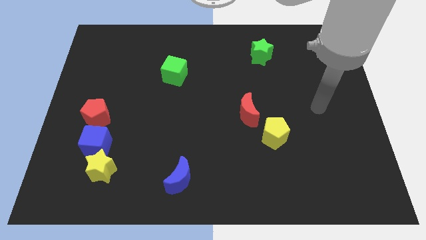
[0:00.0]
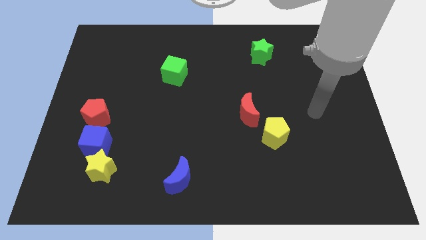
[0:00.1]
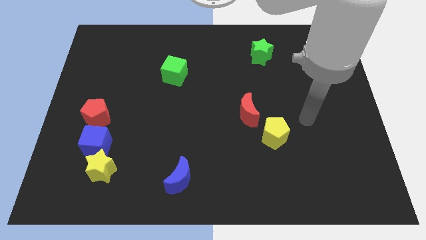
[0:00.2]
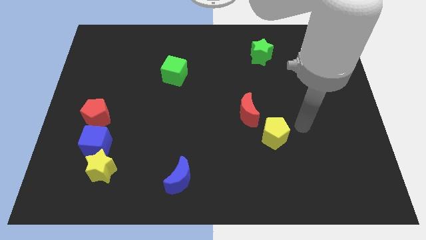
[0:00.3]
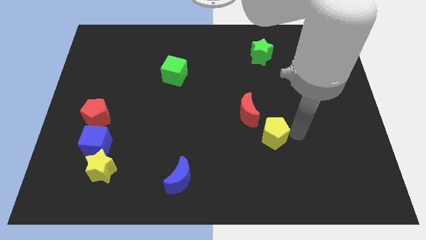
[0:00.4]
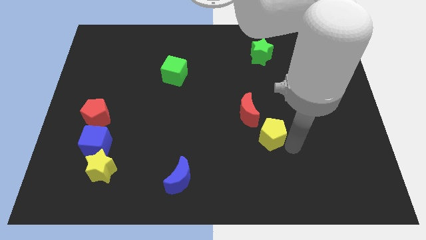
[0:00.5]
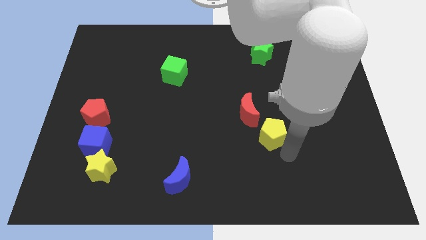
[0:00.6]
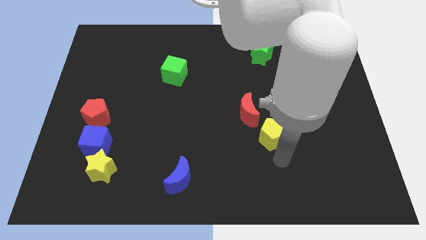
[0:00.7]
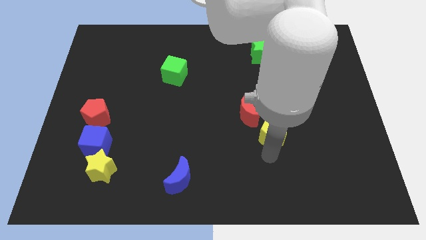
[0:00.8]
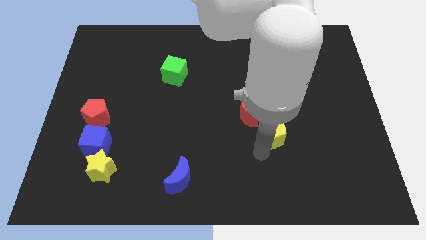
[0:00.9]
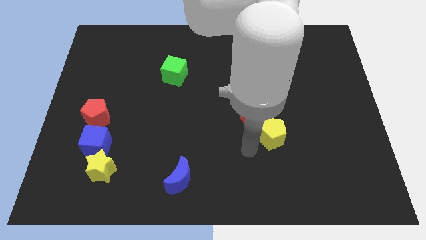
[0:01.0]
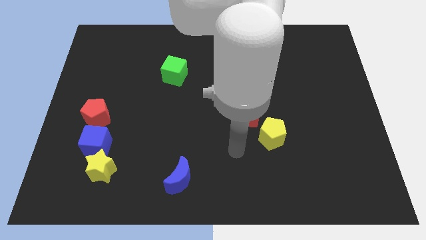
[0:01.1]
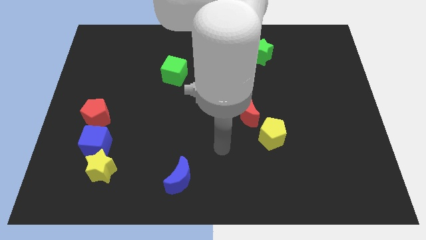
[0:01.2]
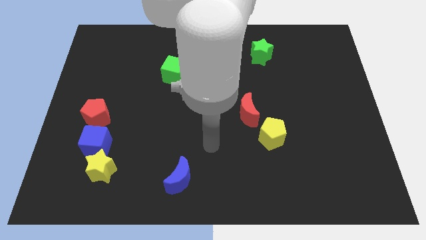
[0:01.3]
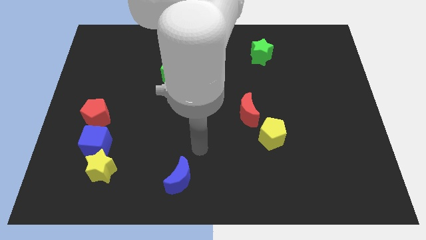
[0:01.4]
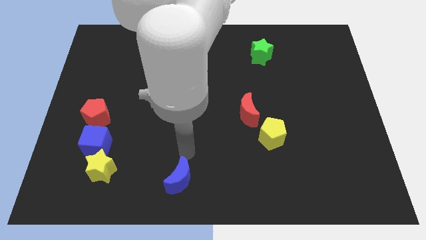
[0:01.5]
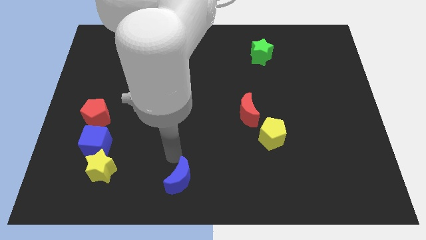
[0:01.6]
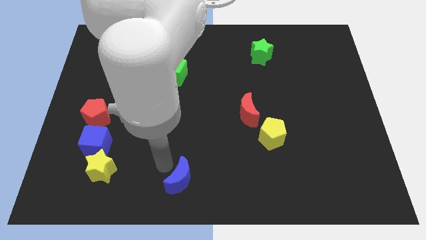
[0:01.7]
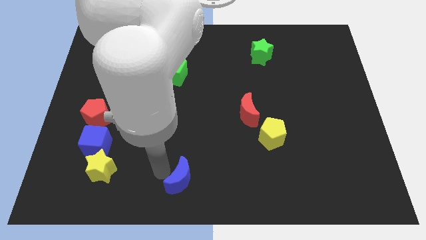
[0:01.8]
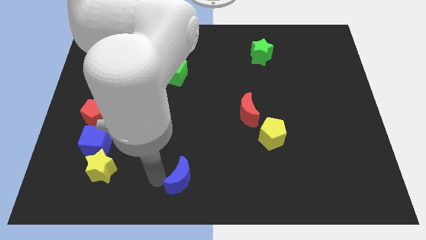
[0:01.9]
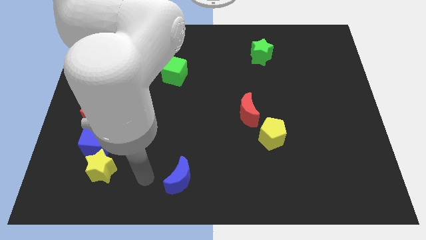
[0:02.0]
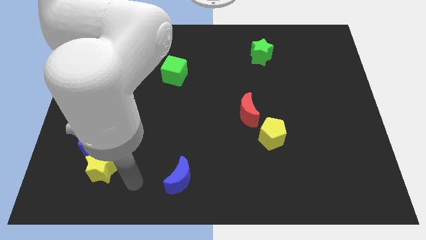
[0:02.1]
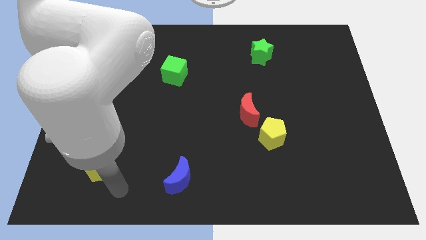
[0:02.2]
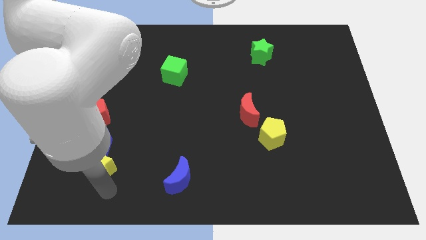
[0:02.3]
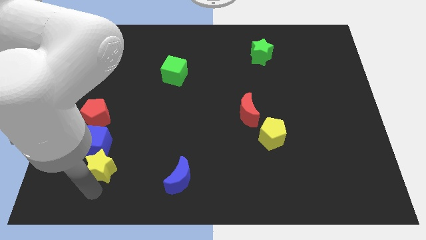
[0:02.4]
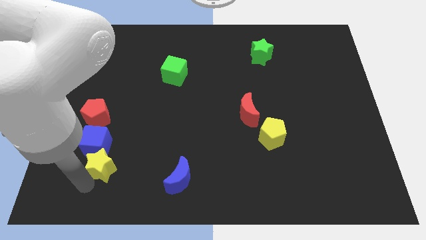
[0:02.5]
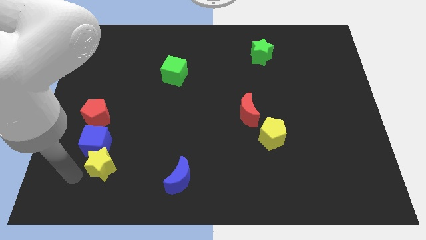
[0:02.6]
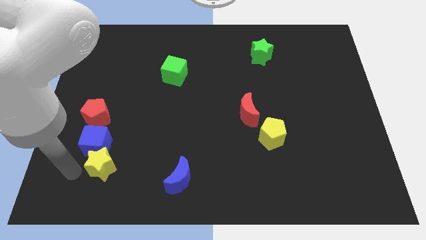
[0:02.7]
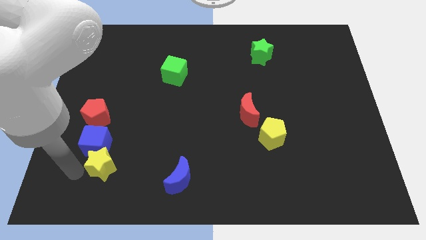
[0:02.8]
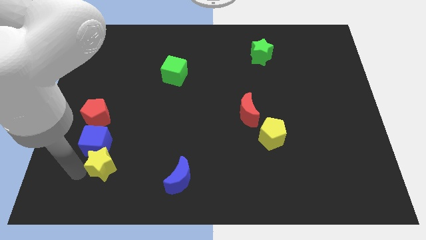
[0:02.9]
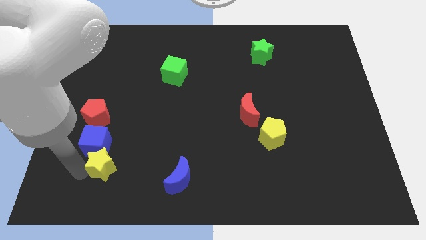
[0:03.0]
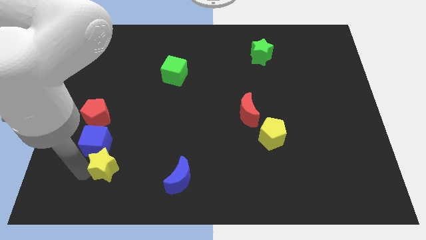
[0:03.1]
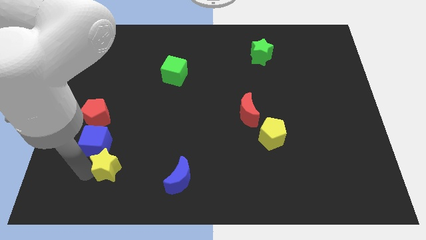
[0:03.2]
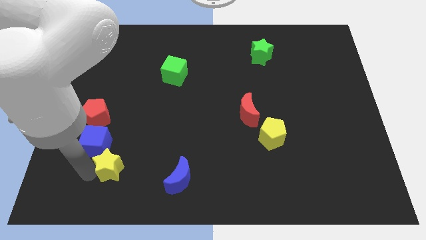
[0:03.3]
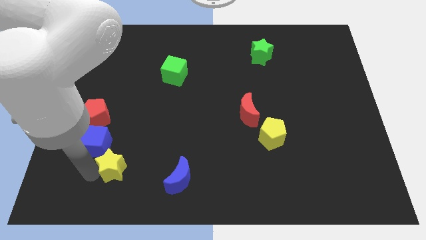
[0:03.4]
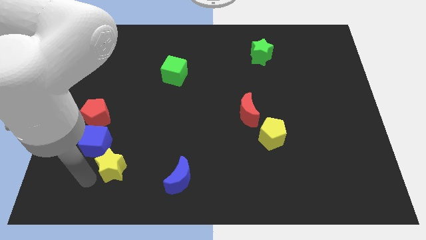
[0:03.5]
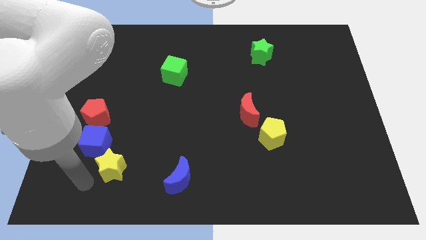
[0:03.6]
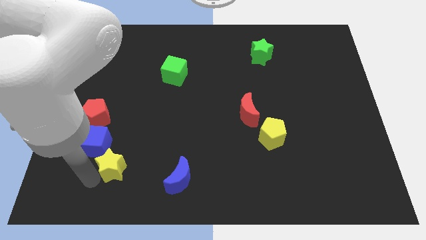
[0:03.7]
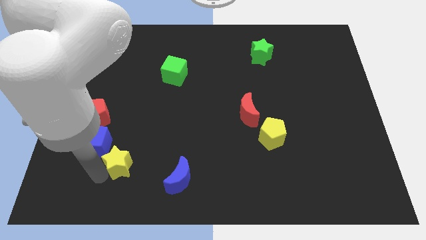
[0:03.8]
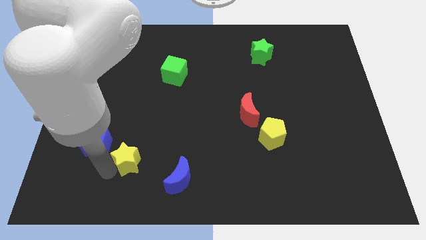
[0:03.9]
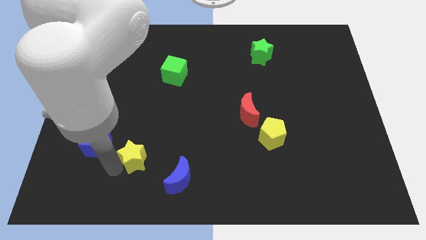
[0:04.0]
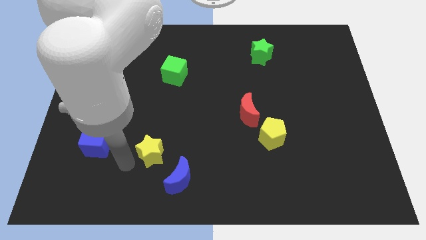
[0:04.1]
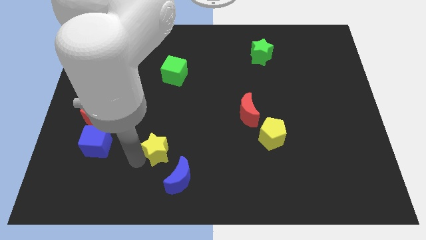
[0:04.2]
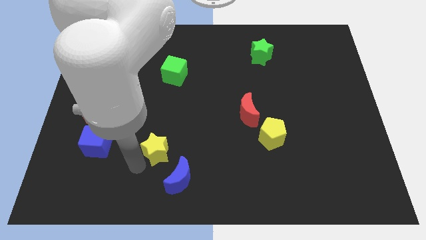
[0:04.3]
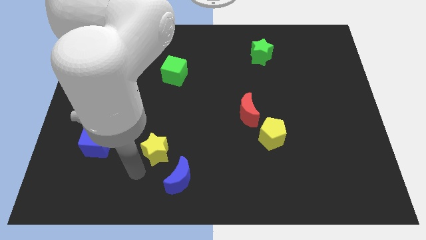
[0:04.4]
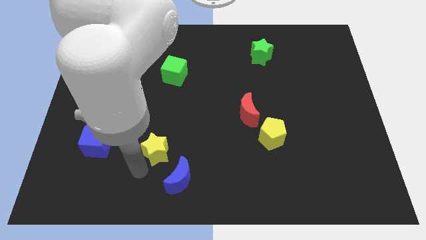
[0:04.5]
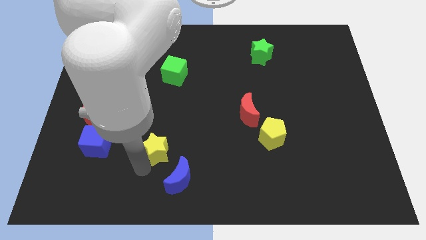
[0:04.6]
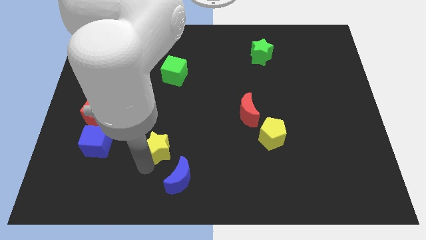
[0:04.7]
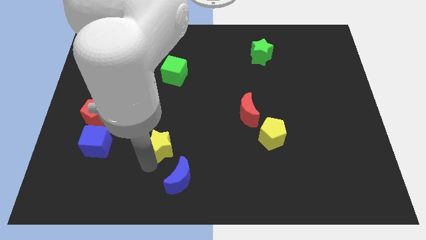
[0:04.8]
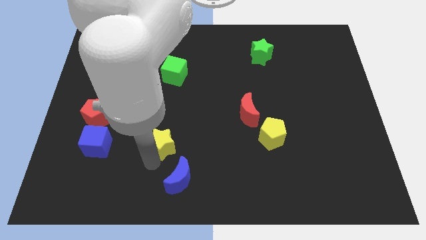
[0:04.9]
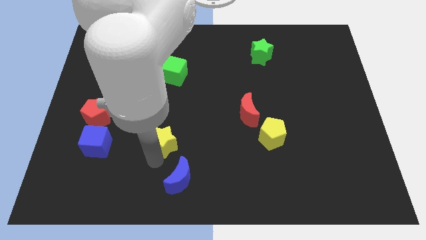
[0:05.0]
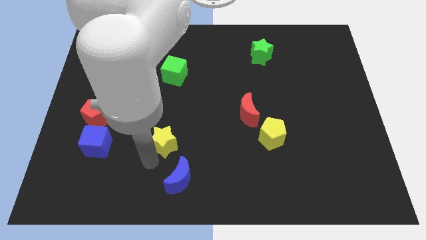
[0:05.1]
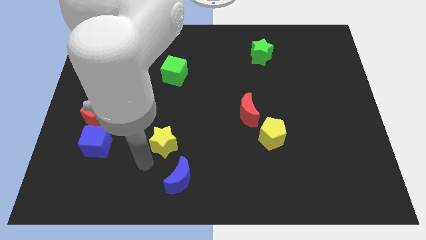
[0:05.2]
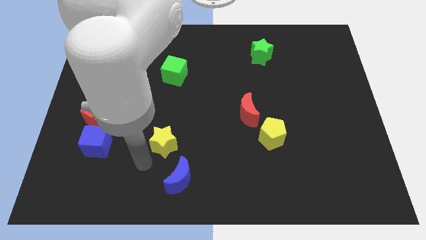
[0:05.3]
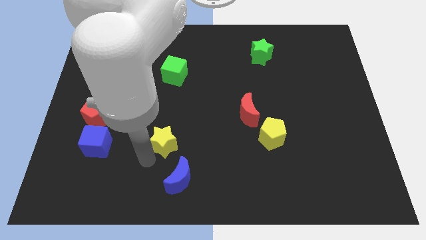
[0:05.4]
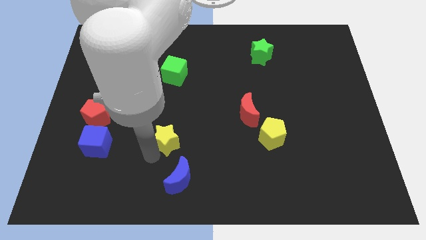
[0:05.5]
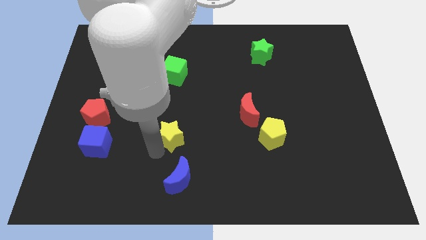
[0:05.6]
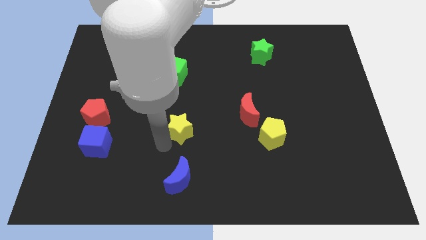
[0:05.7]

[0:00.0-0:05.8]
put the yellow star to the middle

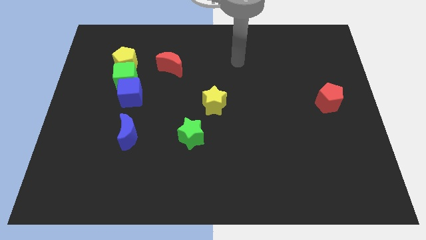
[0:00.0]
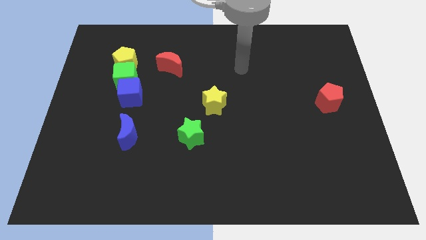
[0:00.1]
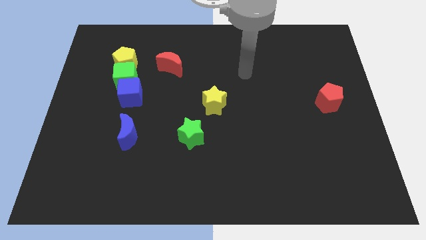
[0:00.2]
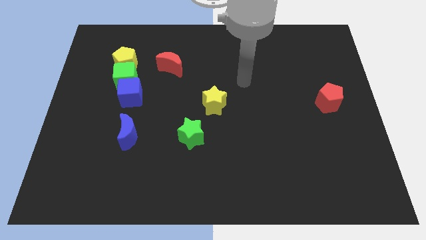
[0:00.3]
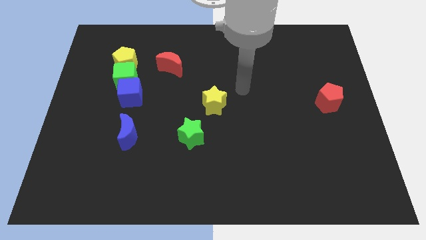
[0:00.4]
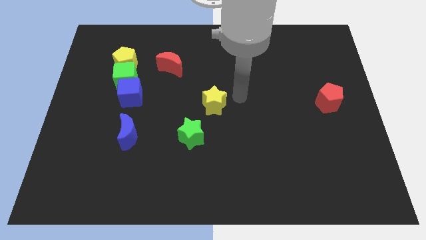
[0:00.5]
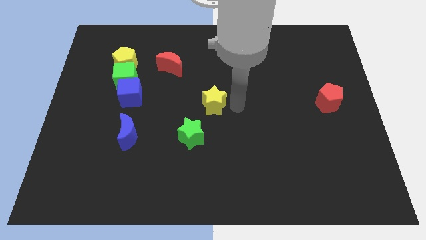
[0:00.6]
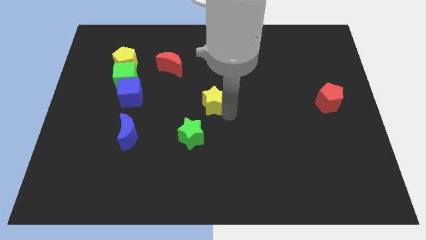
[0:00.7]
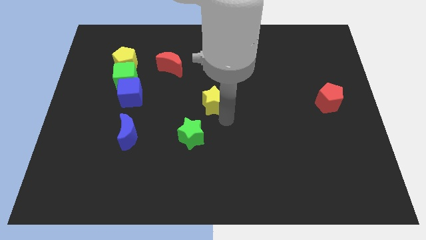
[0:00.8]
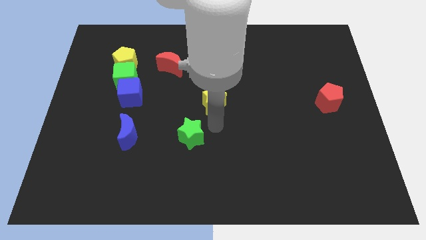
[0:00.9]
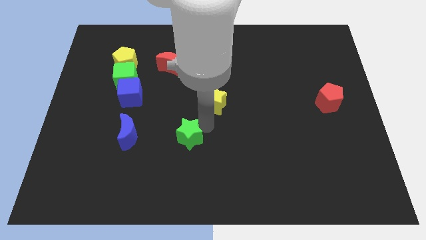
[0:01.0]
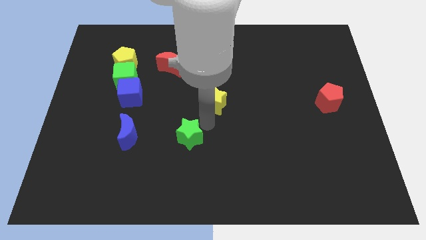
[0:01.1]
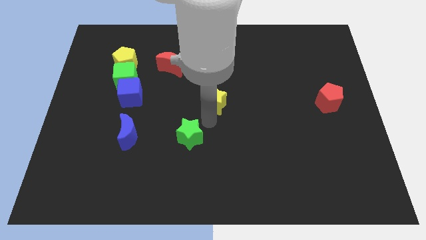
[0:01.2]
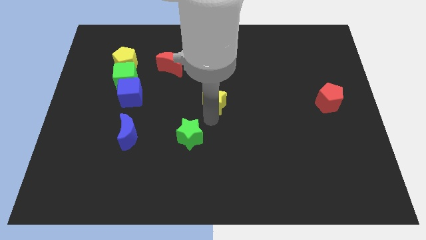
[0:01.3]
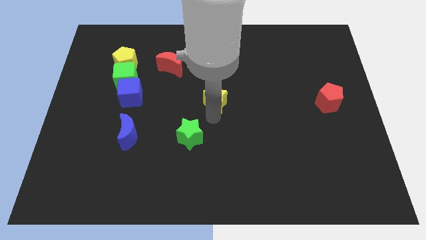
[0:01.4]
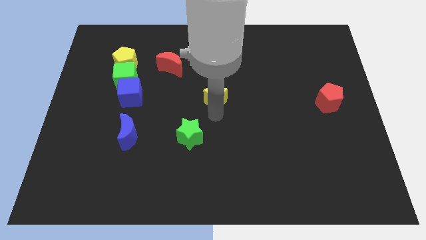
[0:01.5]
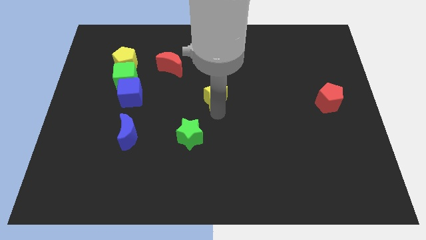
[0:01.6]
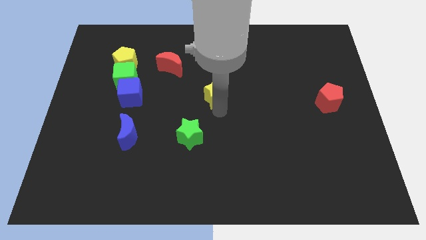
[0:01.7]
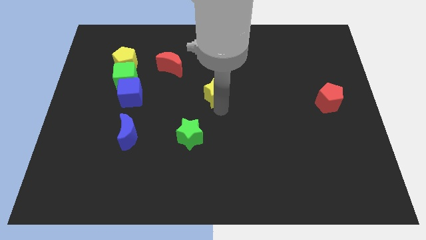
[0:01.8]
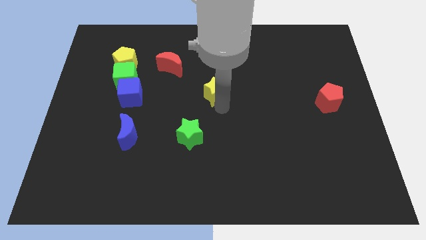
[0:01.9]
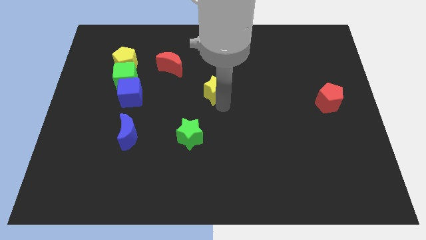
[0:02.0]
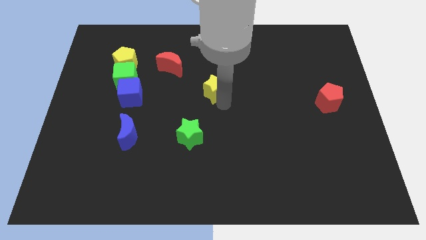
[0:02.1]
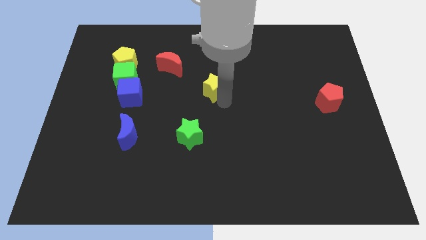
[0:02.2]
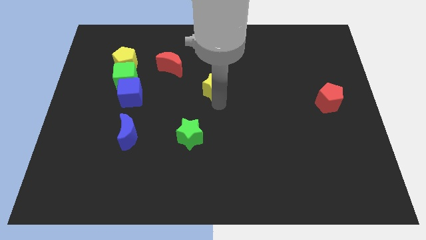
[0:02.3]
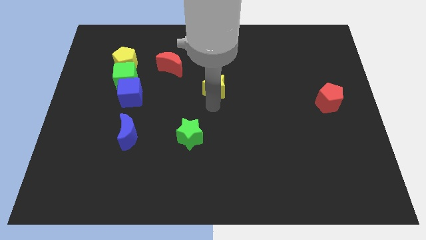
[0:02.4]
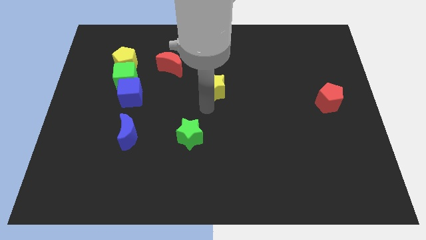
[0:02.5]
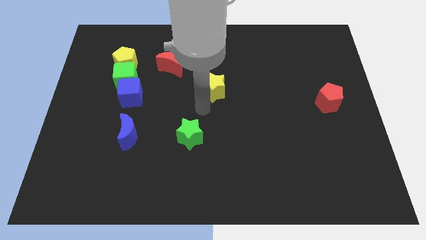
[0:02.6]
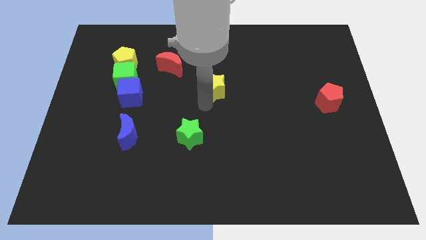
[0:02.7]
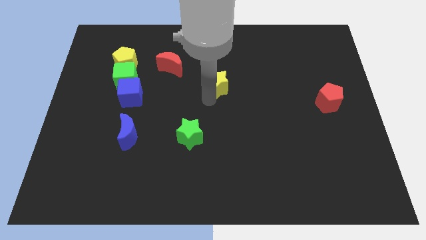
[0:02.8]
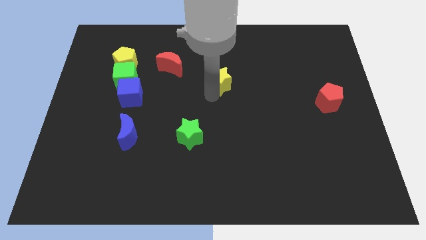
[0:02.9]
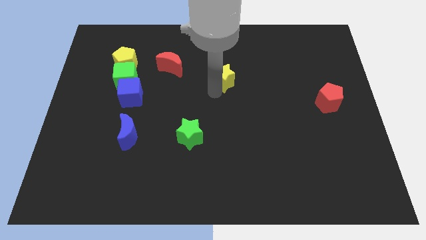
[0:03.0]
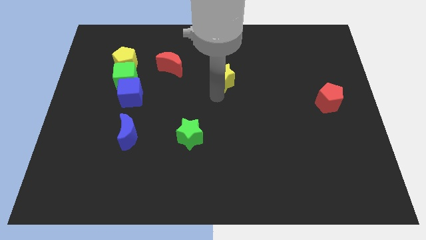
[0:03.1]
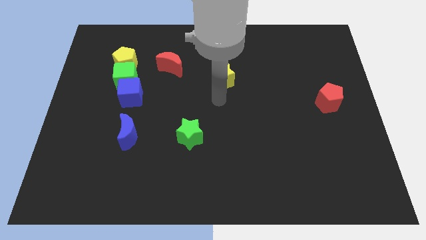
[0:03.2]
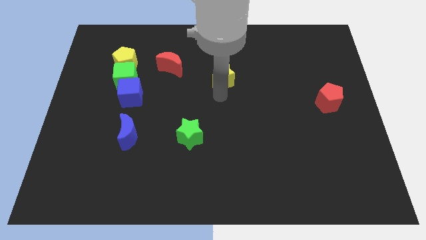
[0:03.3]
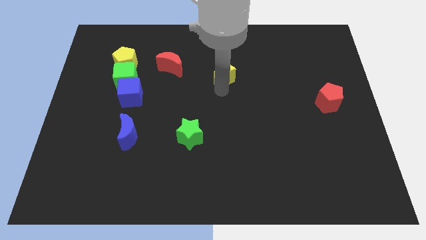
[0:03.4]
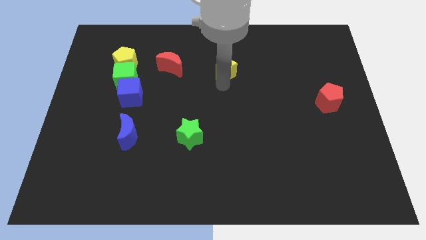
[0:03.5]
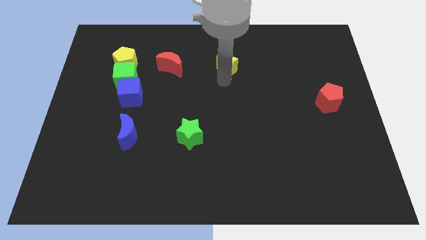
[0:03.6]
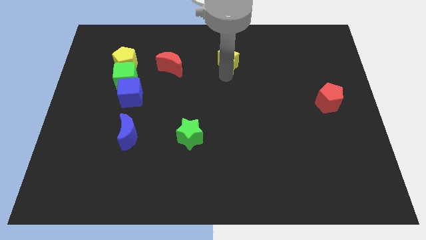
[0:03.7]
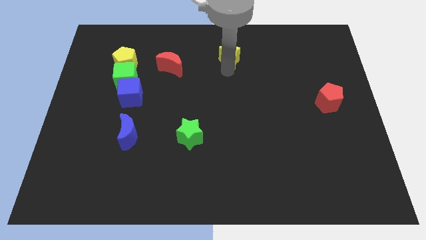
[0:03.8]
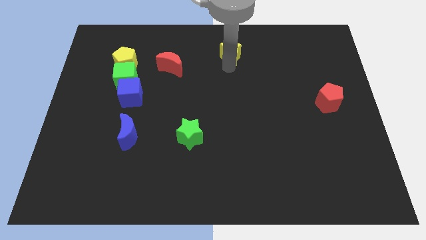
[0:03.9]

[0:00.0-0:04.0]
put the yellow star to the top side
